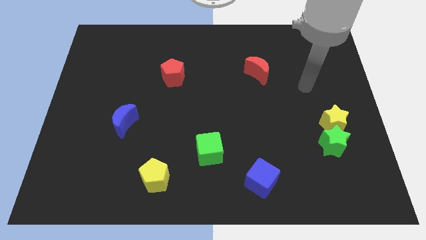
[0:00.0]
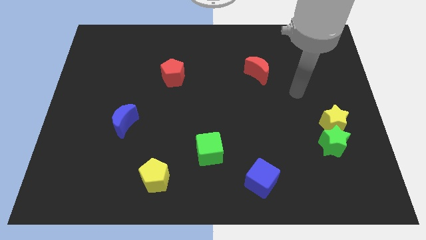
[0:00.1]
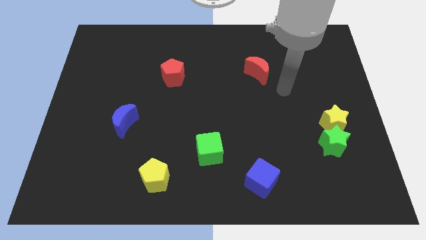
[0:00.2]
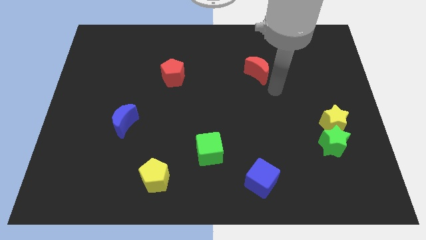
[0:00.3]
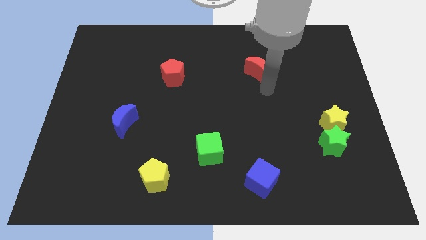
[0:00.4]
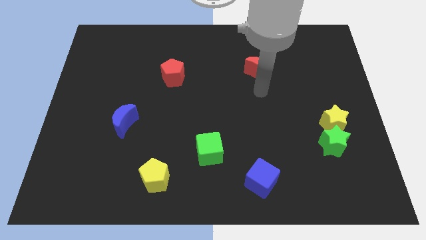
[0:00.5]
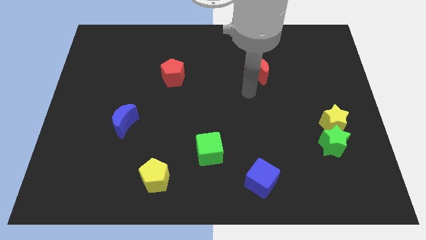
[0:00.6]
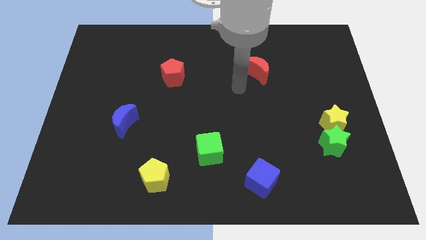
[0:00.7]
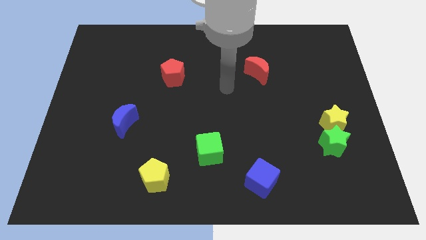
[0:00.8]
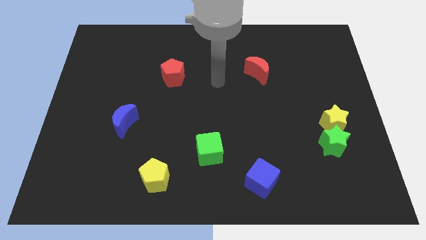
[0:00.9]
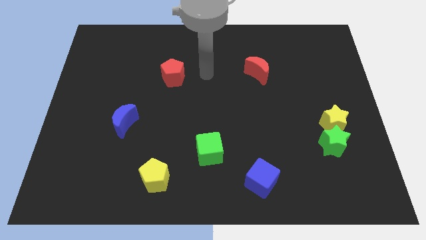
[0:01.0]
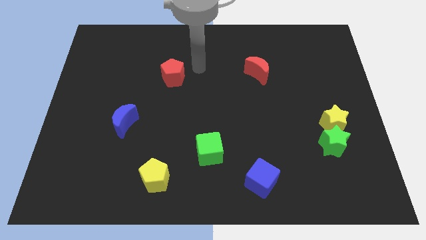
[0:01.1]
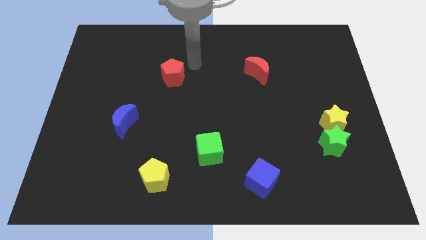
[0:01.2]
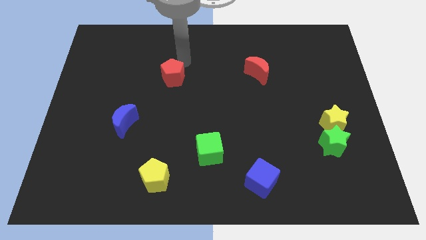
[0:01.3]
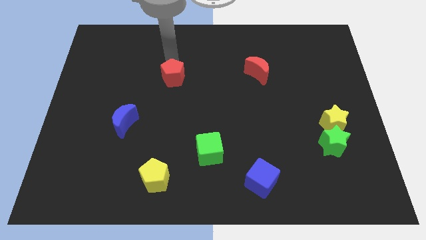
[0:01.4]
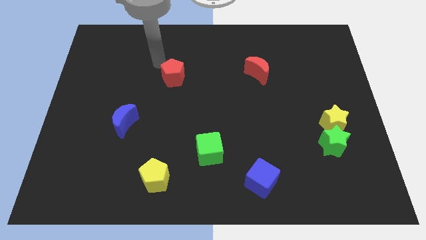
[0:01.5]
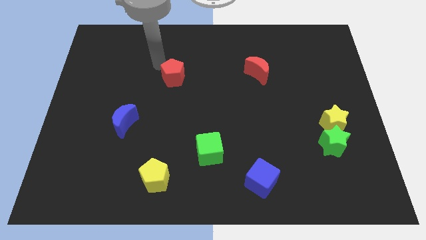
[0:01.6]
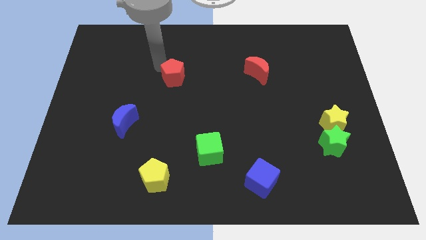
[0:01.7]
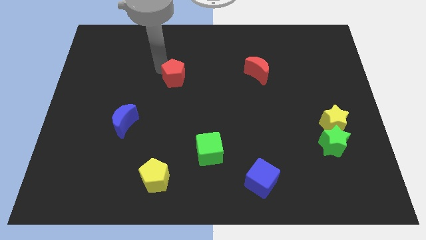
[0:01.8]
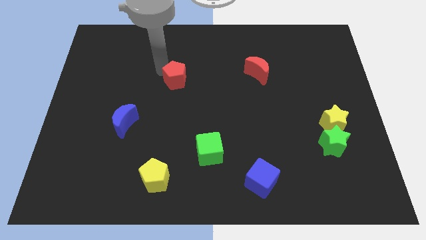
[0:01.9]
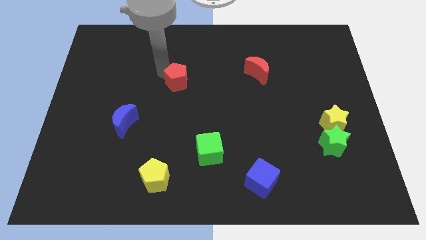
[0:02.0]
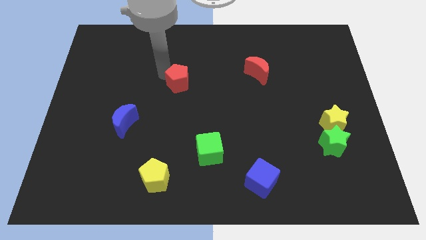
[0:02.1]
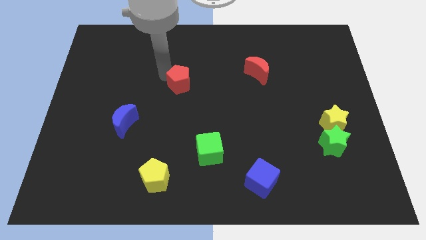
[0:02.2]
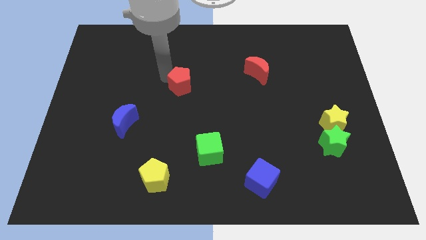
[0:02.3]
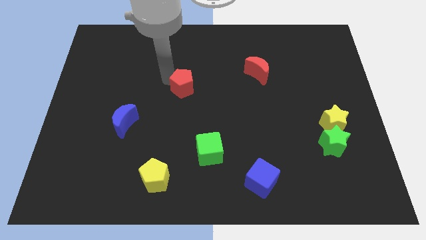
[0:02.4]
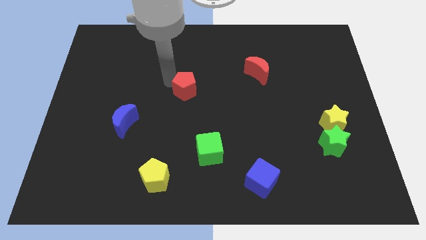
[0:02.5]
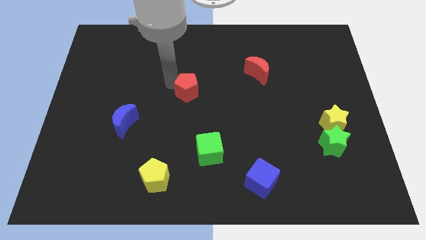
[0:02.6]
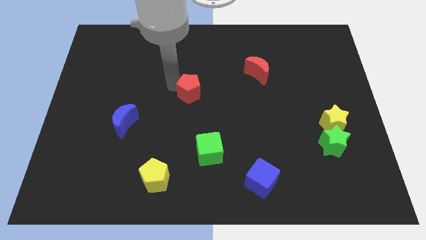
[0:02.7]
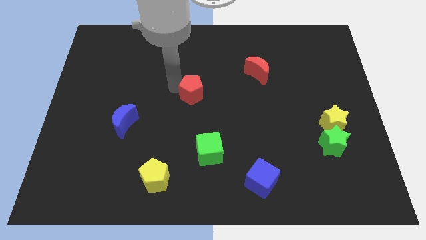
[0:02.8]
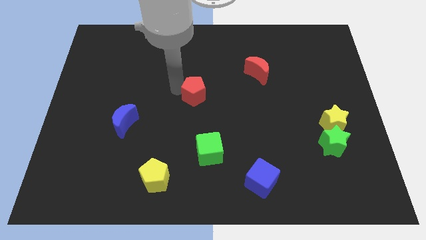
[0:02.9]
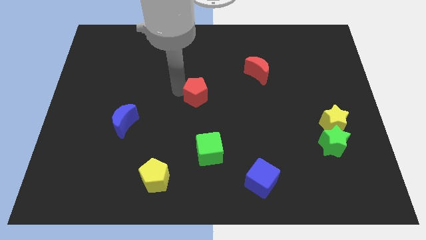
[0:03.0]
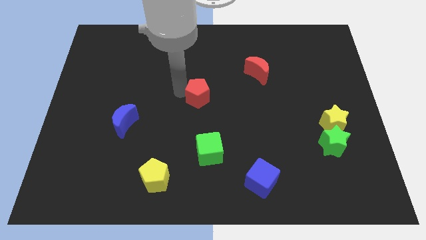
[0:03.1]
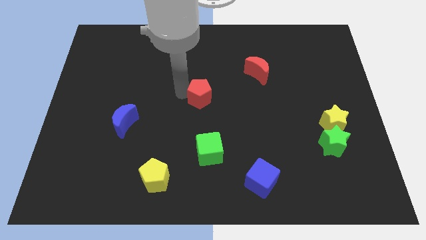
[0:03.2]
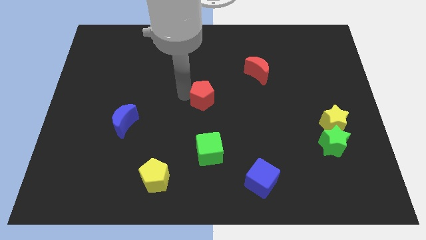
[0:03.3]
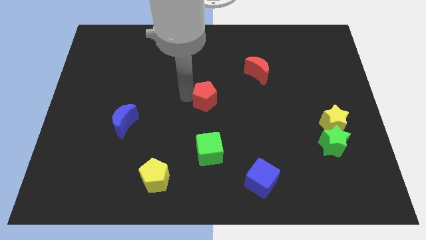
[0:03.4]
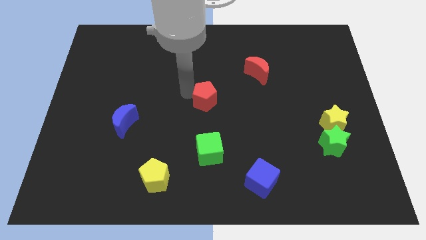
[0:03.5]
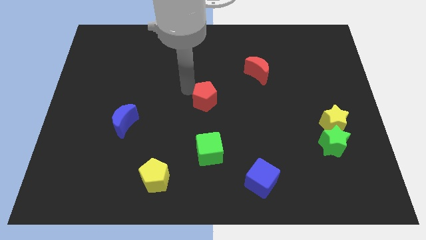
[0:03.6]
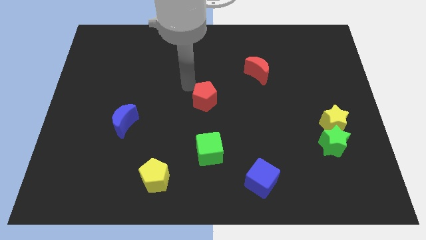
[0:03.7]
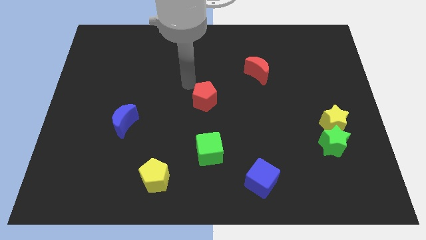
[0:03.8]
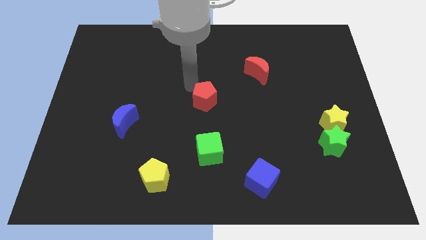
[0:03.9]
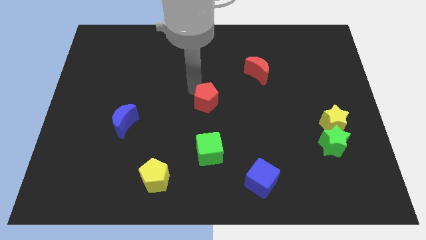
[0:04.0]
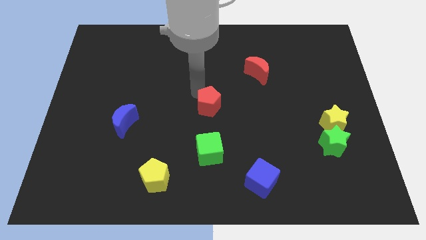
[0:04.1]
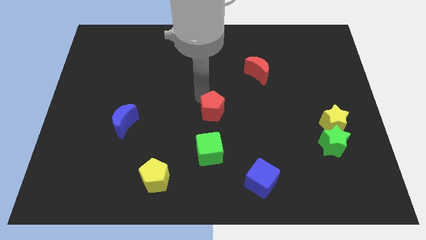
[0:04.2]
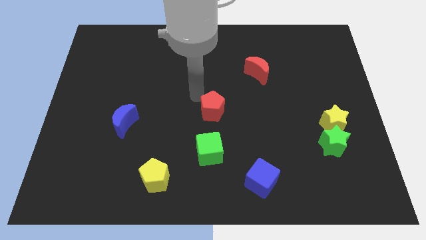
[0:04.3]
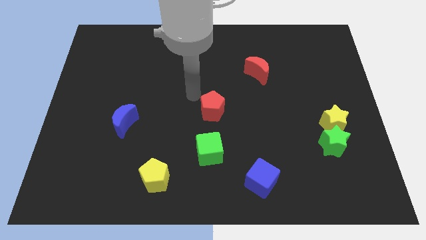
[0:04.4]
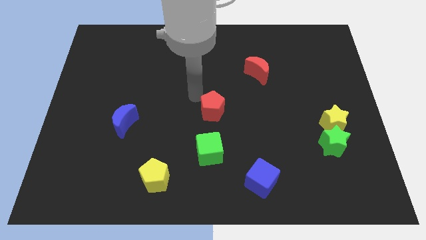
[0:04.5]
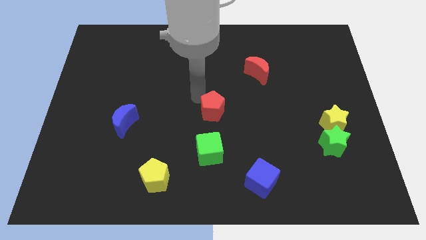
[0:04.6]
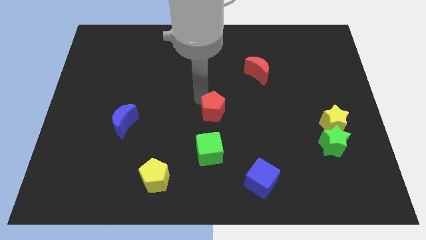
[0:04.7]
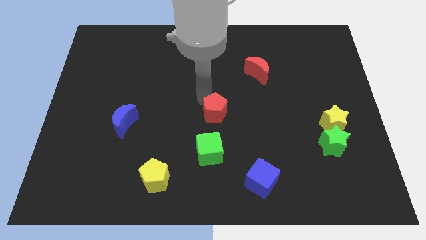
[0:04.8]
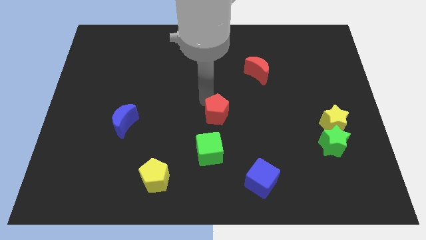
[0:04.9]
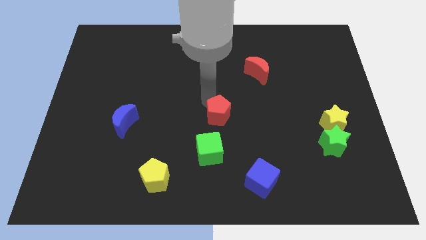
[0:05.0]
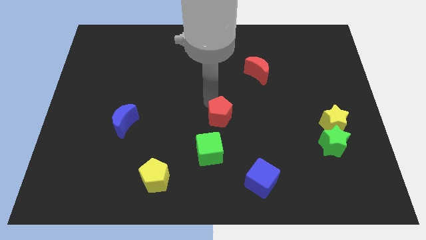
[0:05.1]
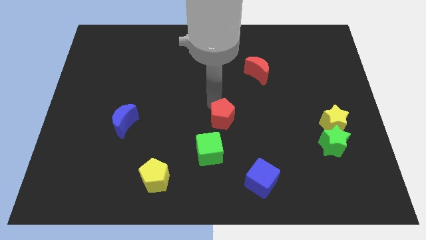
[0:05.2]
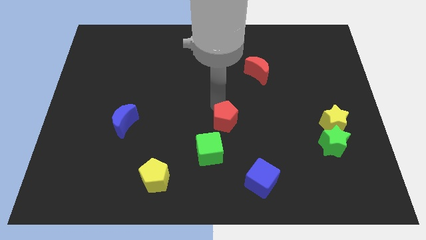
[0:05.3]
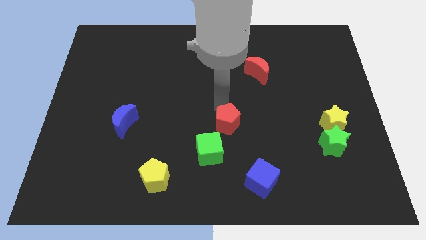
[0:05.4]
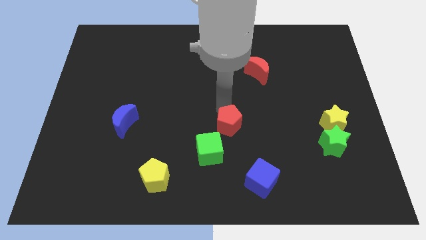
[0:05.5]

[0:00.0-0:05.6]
slide the red pentagon diagonally down and to the right

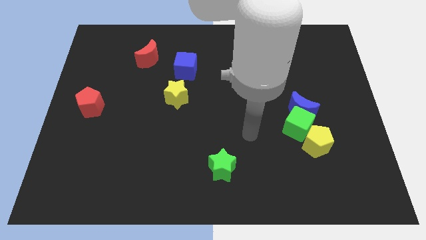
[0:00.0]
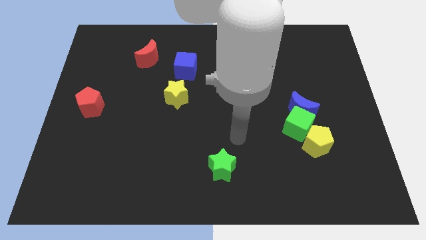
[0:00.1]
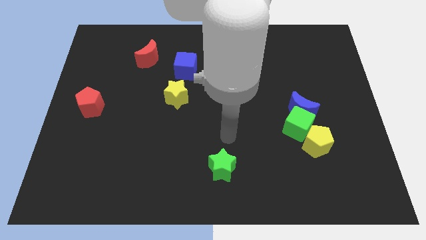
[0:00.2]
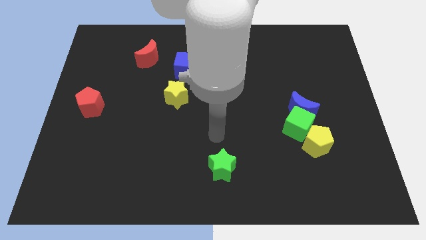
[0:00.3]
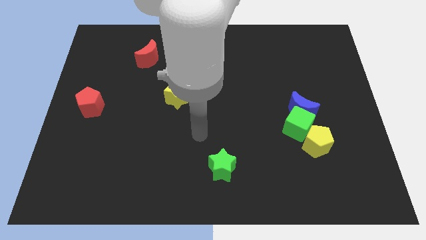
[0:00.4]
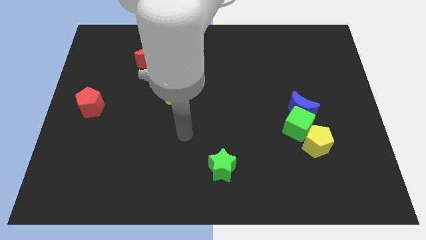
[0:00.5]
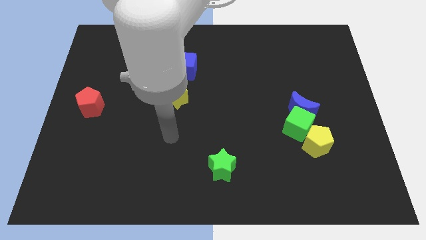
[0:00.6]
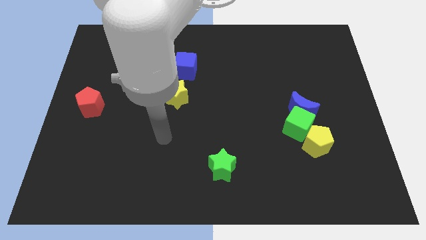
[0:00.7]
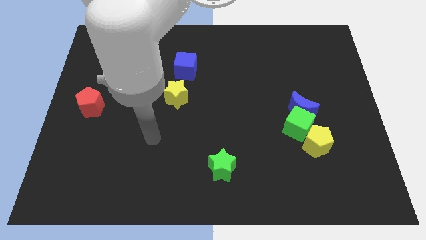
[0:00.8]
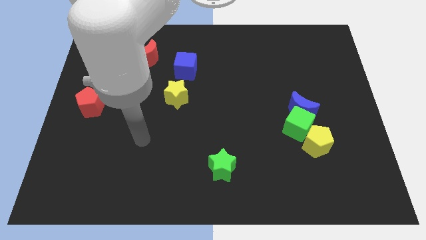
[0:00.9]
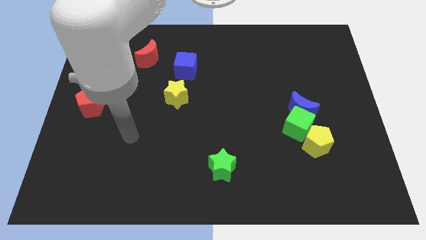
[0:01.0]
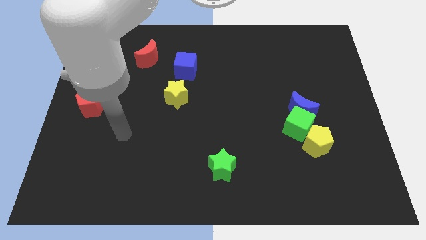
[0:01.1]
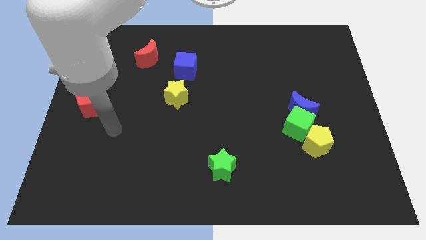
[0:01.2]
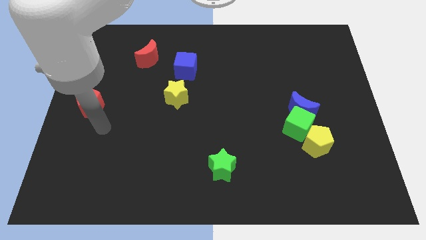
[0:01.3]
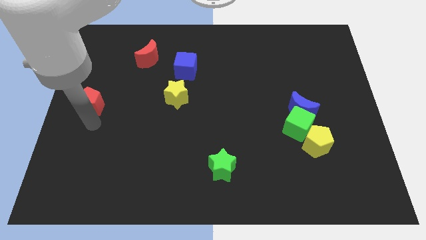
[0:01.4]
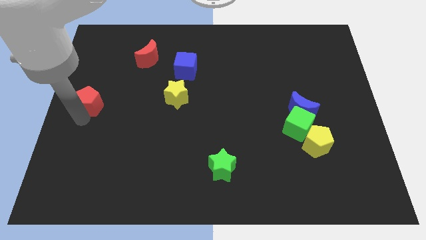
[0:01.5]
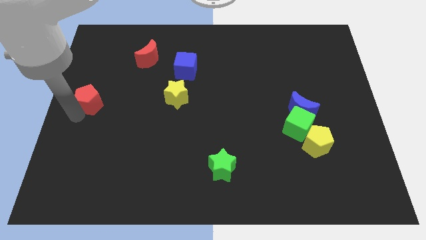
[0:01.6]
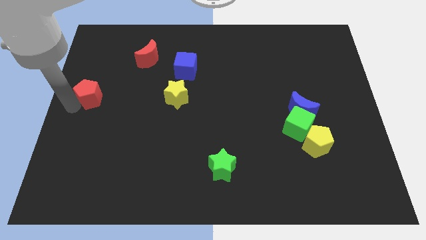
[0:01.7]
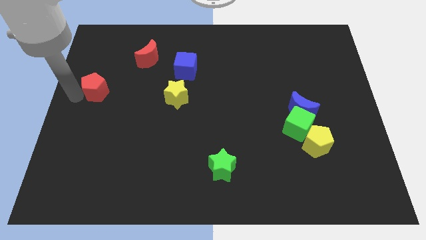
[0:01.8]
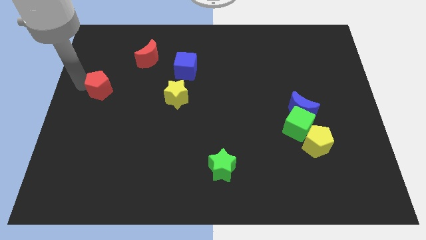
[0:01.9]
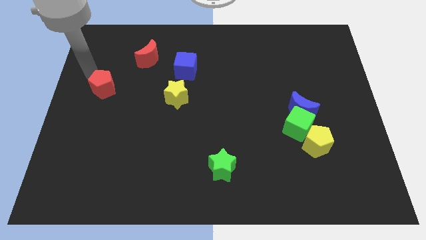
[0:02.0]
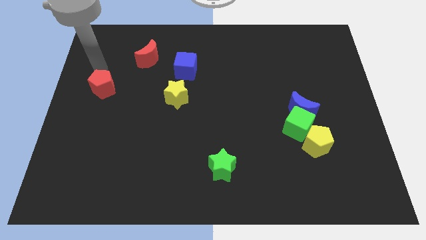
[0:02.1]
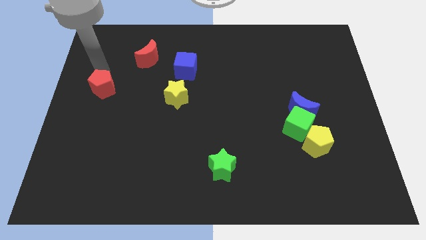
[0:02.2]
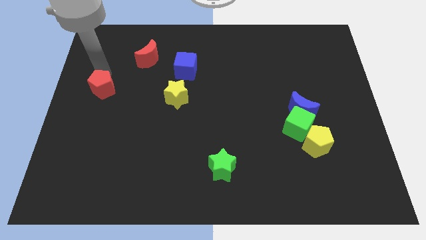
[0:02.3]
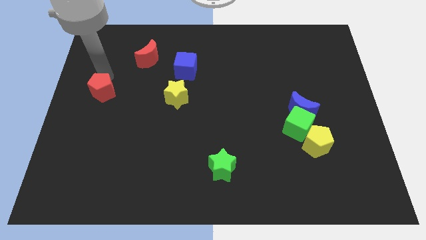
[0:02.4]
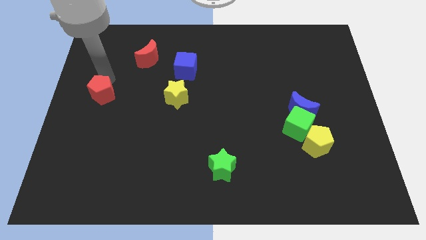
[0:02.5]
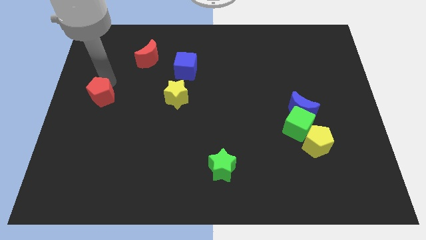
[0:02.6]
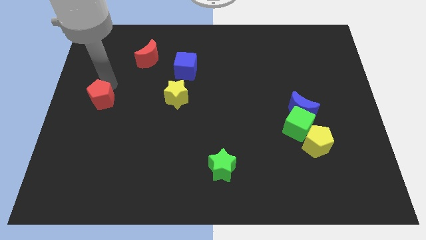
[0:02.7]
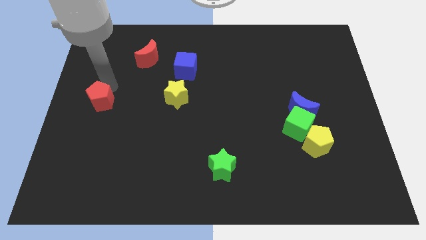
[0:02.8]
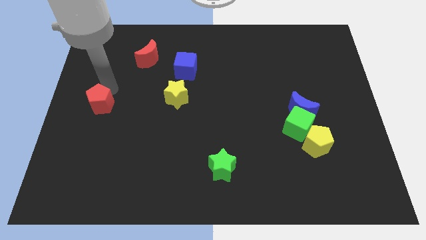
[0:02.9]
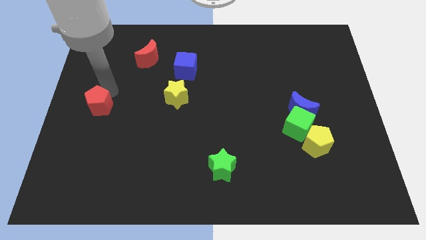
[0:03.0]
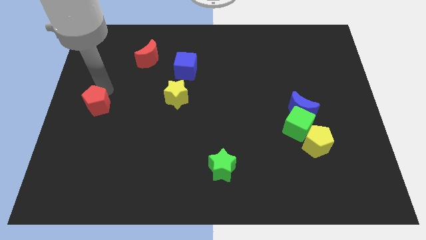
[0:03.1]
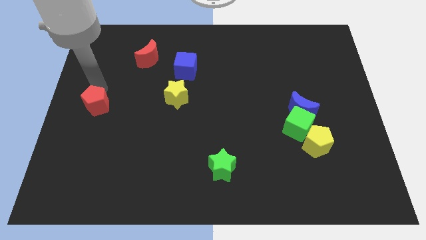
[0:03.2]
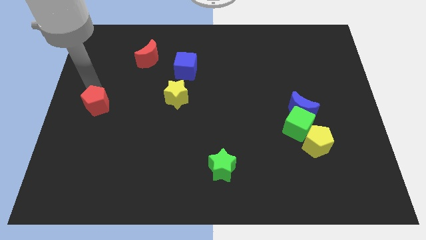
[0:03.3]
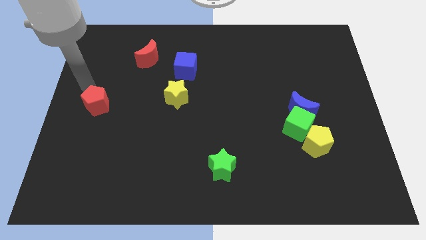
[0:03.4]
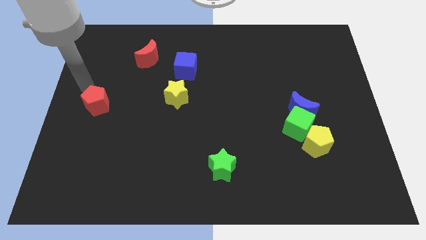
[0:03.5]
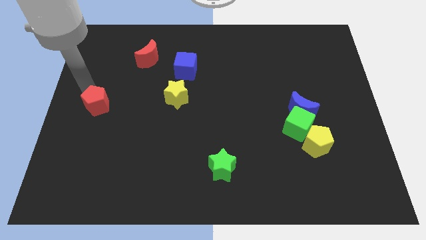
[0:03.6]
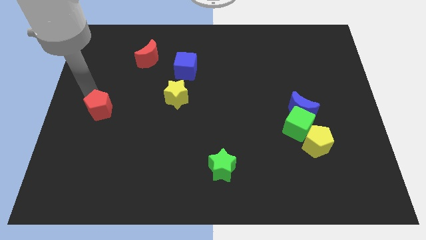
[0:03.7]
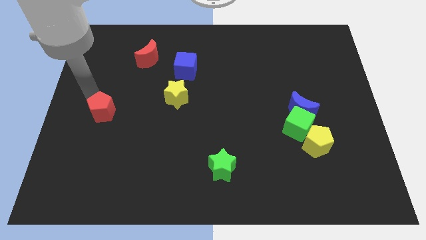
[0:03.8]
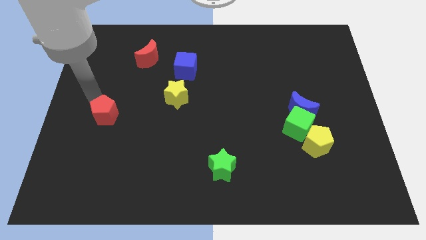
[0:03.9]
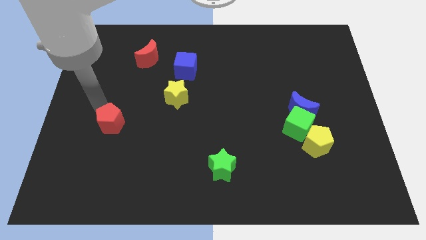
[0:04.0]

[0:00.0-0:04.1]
slightly push the red pentagon diagonally down and right
